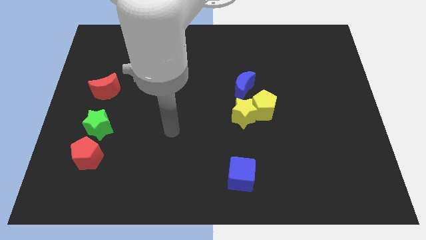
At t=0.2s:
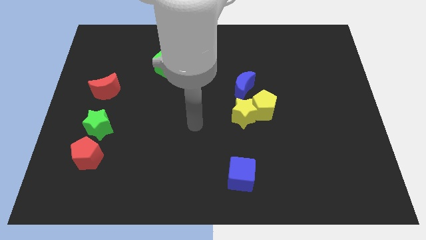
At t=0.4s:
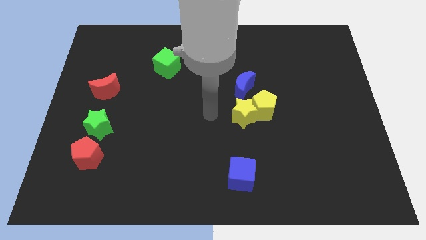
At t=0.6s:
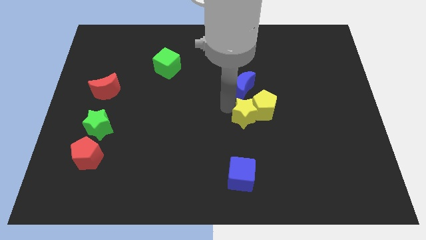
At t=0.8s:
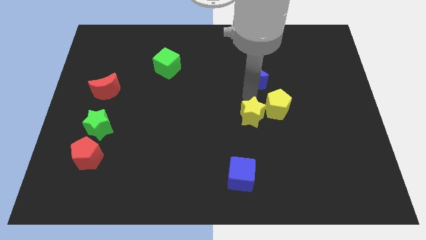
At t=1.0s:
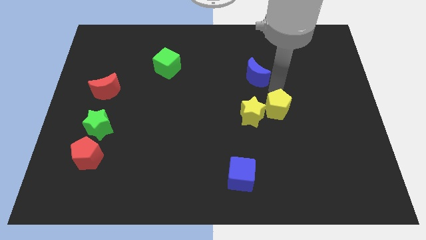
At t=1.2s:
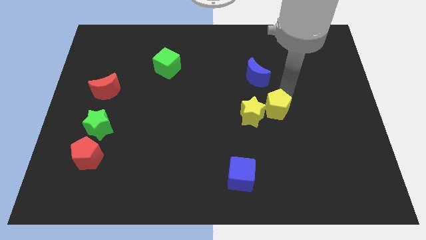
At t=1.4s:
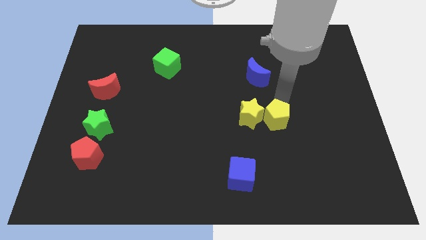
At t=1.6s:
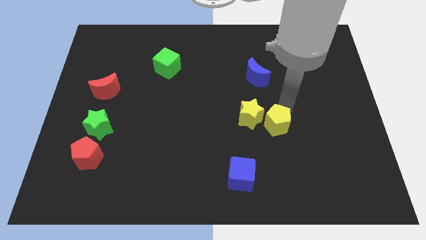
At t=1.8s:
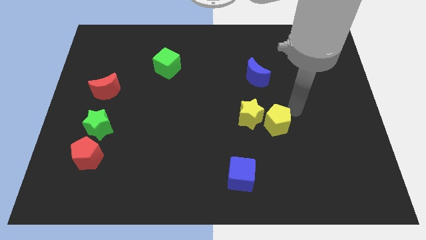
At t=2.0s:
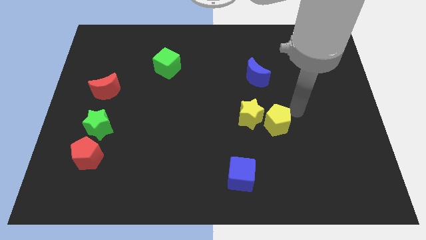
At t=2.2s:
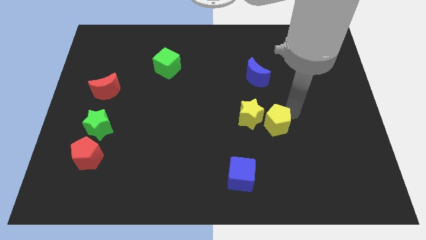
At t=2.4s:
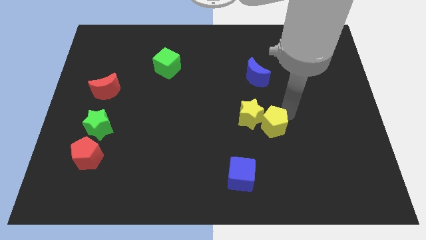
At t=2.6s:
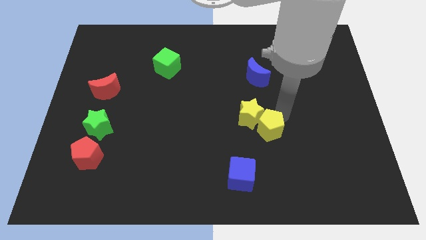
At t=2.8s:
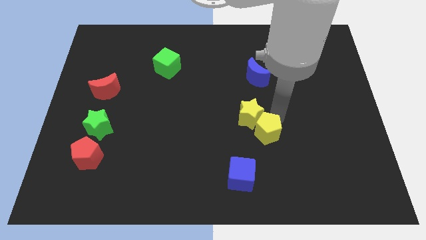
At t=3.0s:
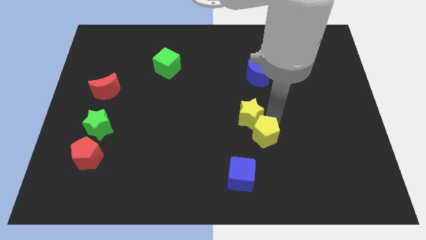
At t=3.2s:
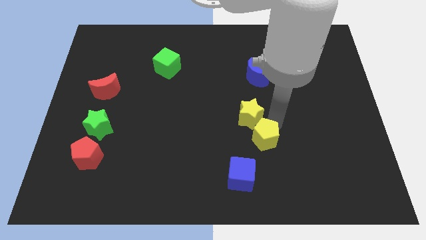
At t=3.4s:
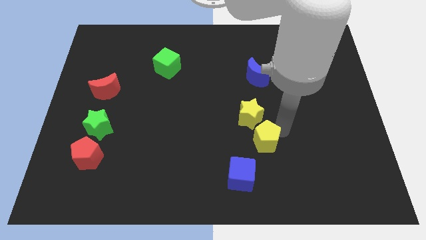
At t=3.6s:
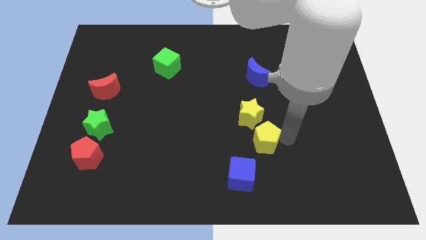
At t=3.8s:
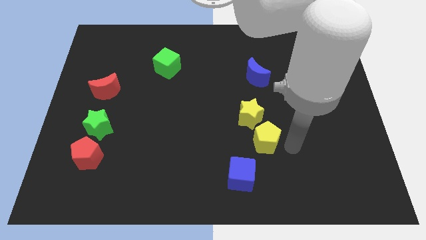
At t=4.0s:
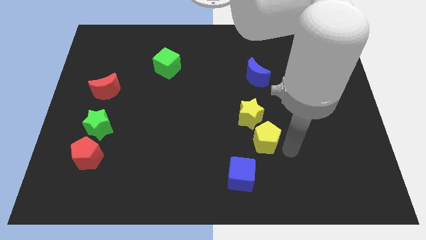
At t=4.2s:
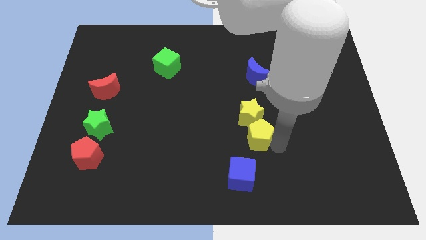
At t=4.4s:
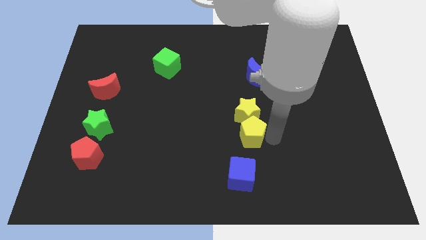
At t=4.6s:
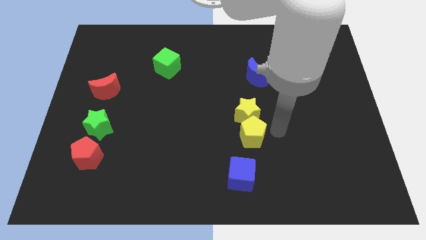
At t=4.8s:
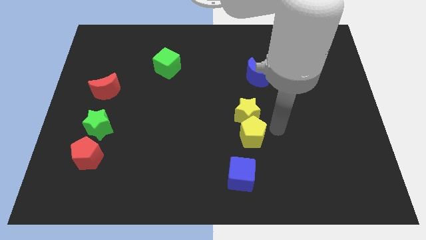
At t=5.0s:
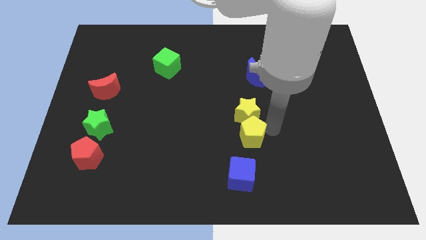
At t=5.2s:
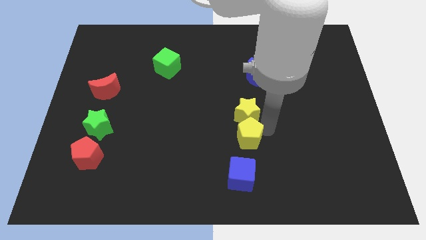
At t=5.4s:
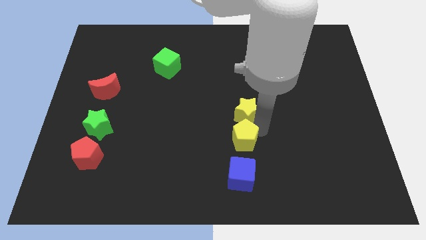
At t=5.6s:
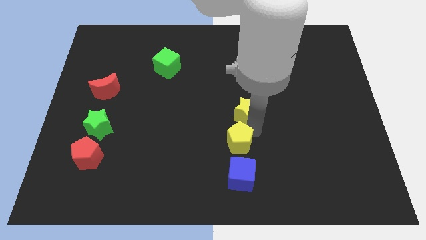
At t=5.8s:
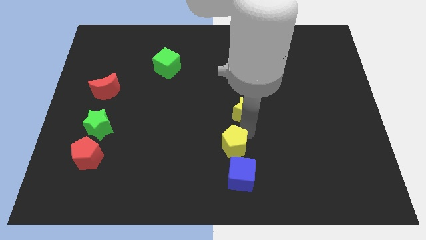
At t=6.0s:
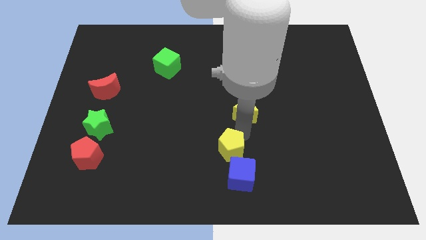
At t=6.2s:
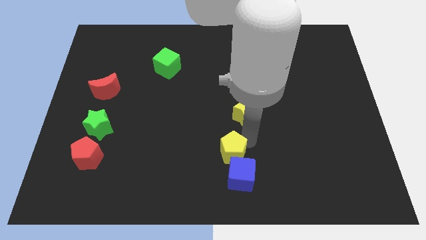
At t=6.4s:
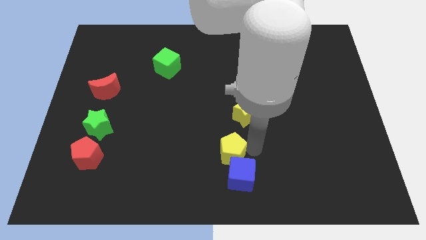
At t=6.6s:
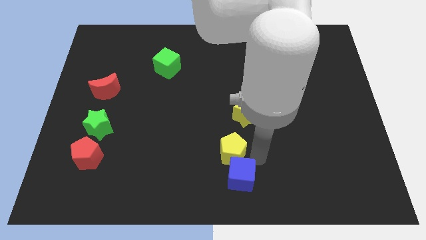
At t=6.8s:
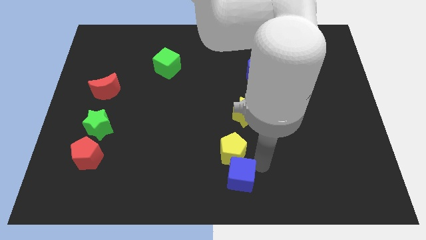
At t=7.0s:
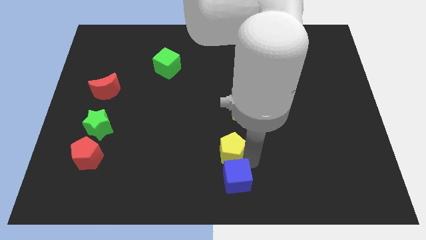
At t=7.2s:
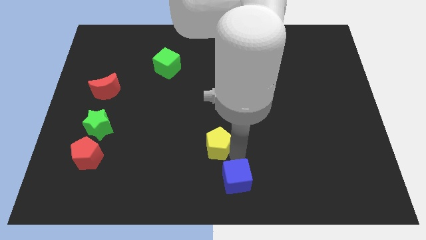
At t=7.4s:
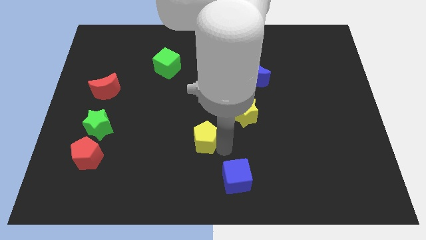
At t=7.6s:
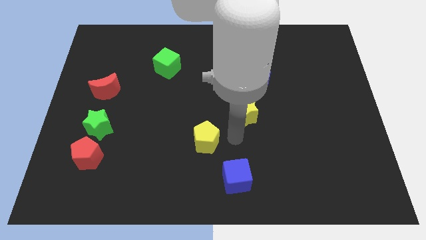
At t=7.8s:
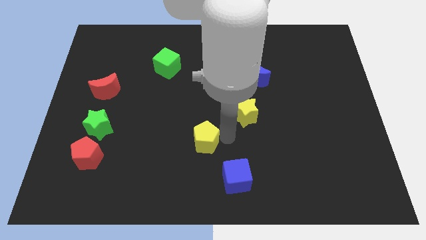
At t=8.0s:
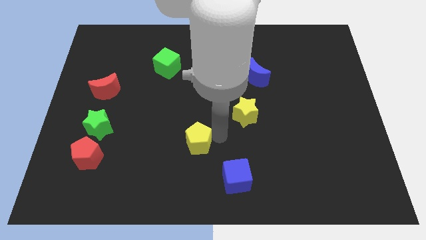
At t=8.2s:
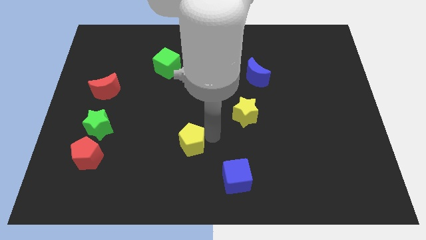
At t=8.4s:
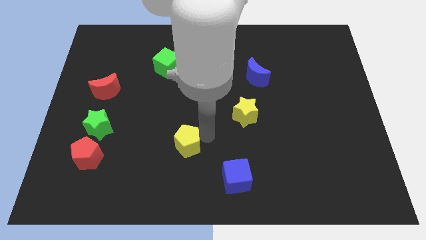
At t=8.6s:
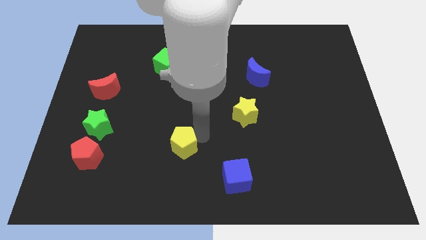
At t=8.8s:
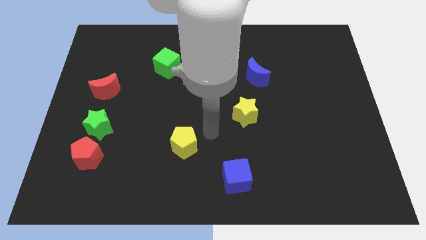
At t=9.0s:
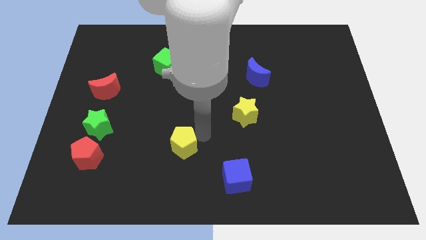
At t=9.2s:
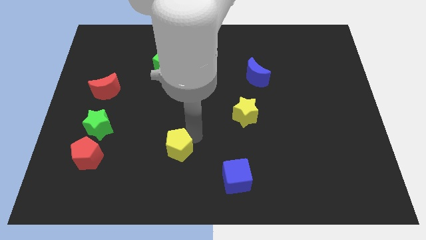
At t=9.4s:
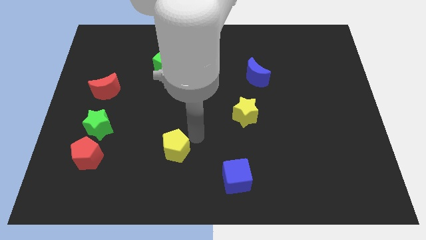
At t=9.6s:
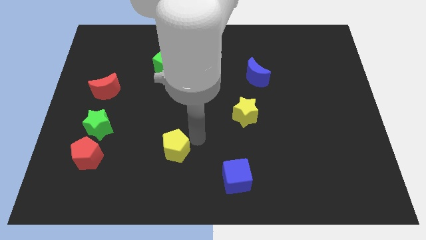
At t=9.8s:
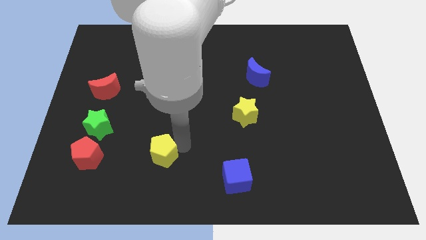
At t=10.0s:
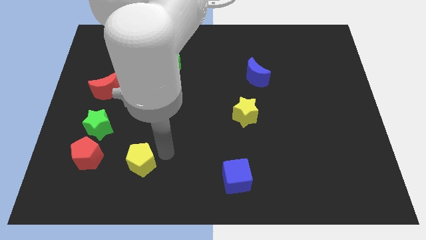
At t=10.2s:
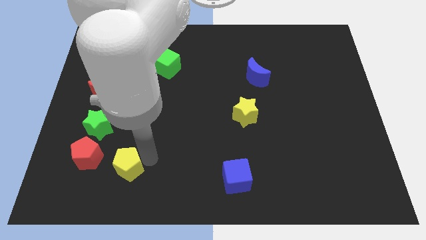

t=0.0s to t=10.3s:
move the yellow pentagon to the bottom right side of the red pentagon
